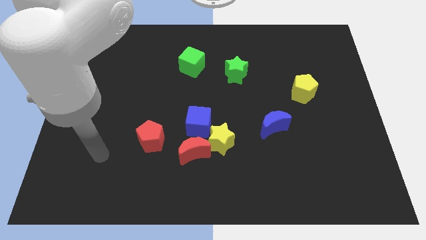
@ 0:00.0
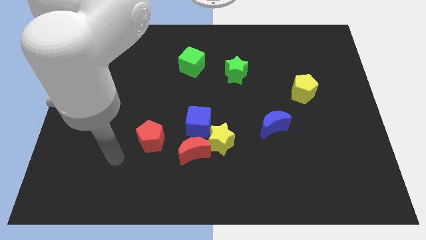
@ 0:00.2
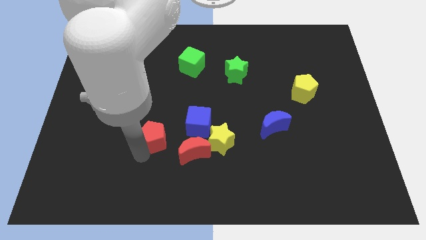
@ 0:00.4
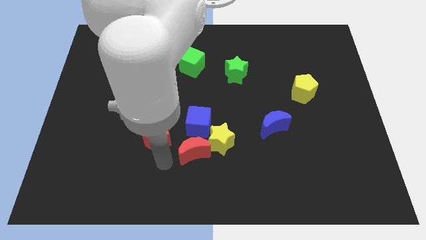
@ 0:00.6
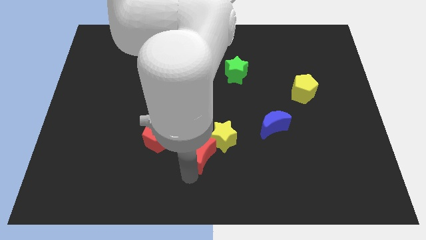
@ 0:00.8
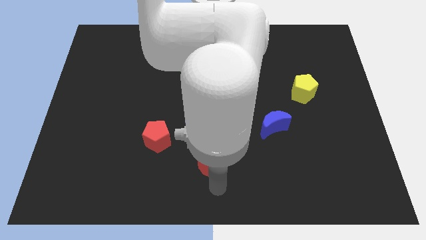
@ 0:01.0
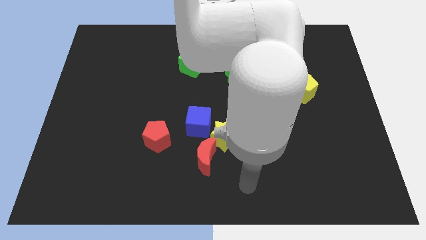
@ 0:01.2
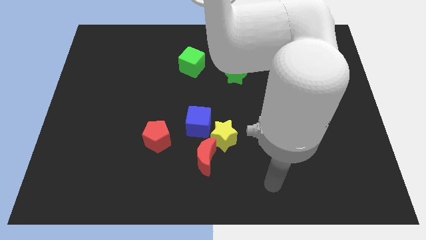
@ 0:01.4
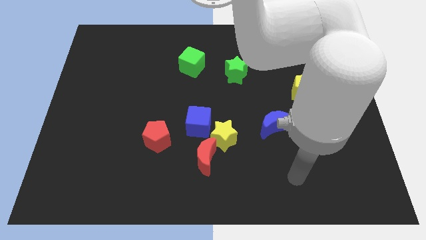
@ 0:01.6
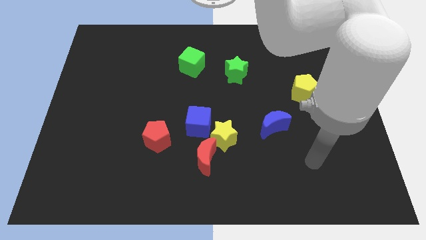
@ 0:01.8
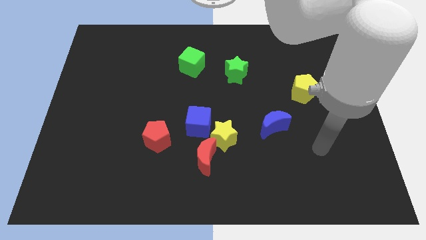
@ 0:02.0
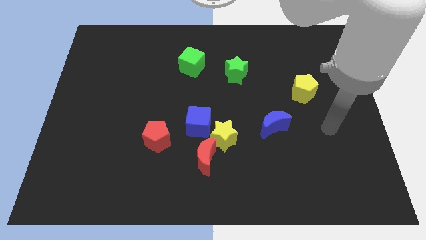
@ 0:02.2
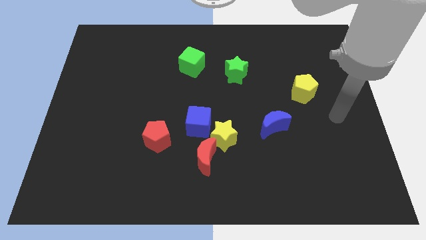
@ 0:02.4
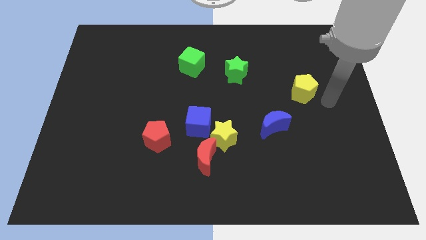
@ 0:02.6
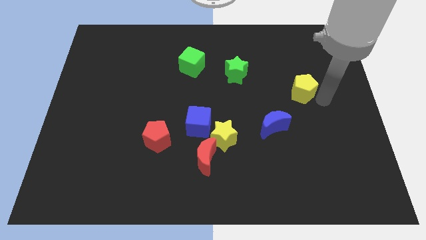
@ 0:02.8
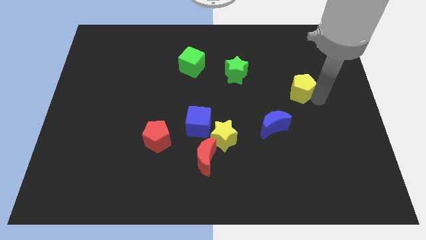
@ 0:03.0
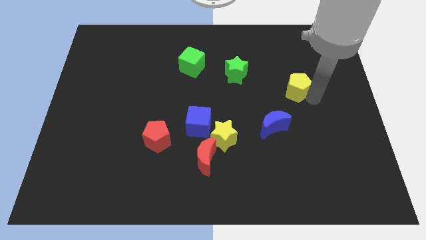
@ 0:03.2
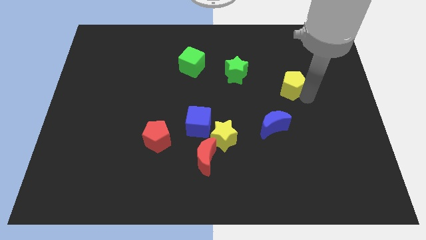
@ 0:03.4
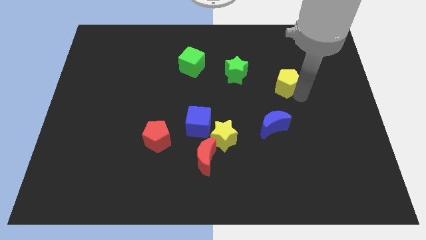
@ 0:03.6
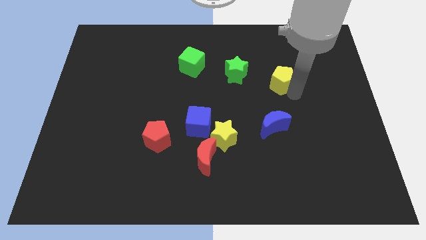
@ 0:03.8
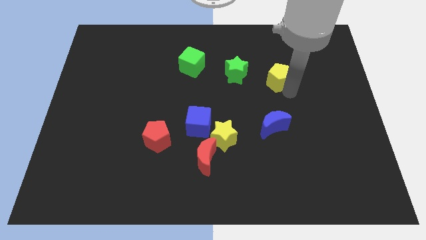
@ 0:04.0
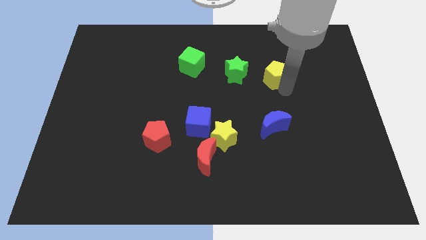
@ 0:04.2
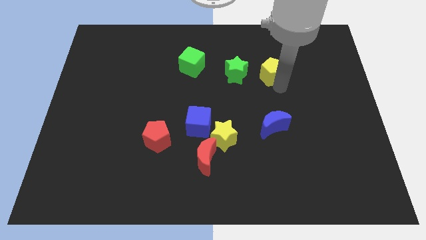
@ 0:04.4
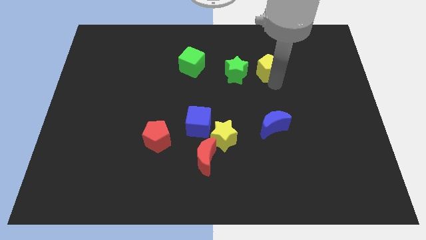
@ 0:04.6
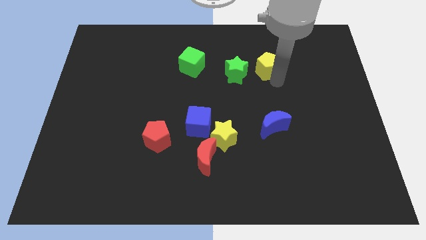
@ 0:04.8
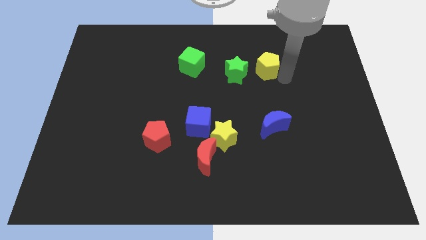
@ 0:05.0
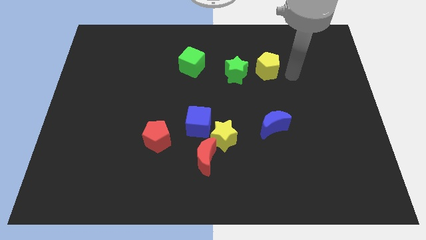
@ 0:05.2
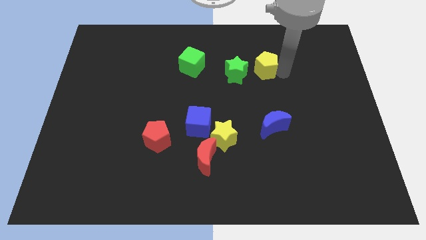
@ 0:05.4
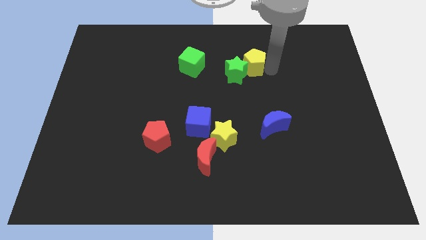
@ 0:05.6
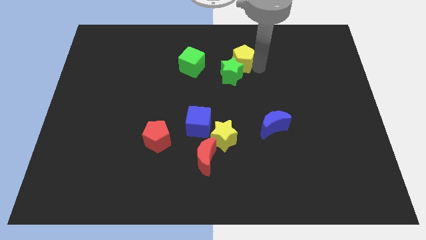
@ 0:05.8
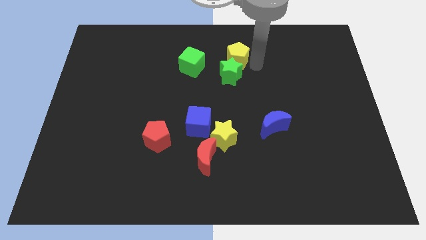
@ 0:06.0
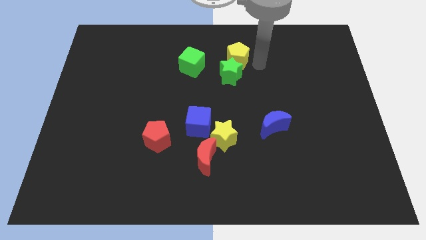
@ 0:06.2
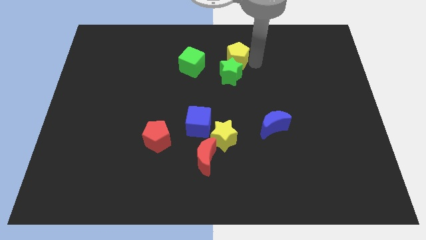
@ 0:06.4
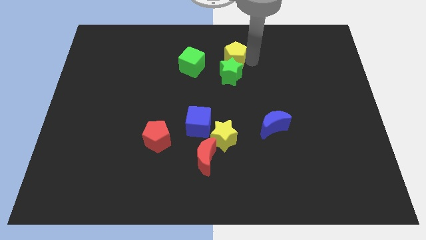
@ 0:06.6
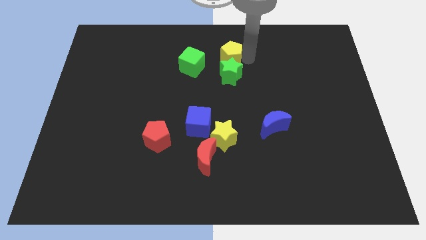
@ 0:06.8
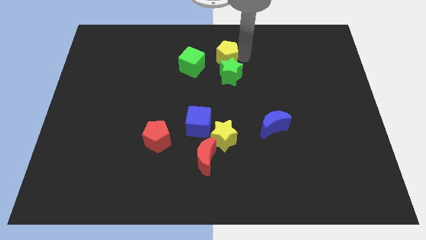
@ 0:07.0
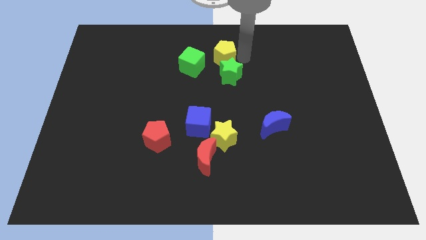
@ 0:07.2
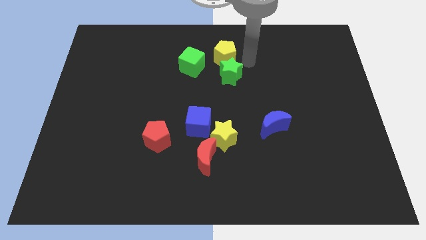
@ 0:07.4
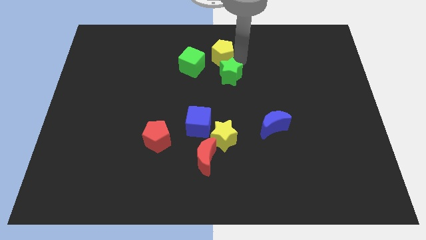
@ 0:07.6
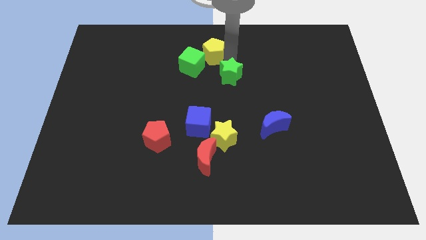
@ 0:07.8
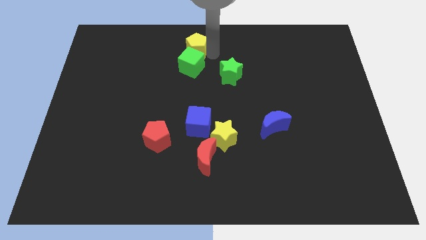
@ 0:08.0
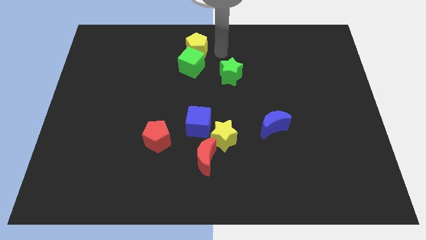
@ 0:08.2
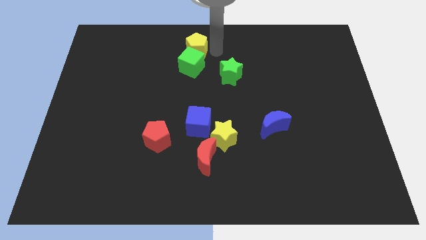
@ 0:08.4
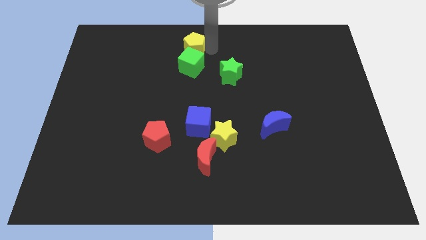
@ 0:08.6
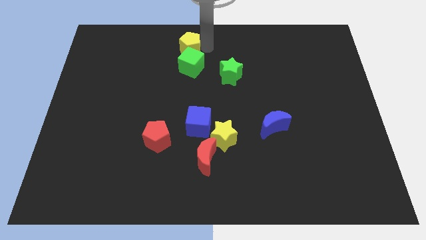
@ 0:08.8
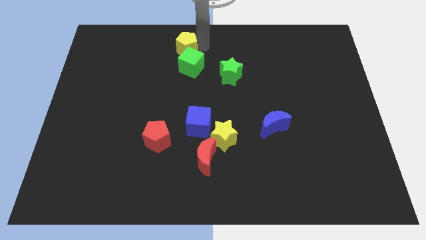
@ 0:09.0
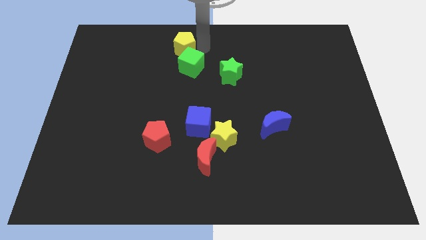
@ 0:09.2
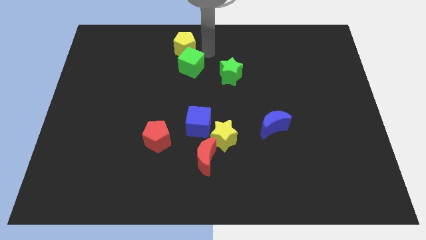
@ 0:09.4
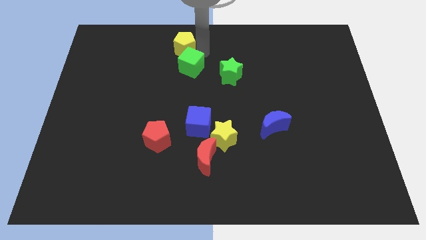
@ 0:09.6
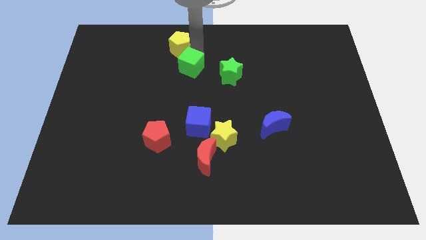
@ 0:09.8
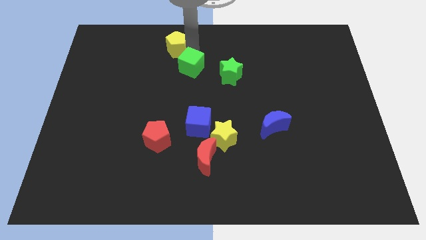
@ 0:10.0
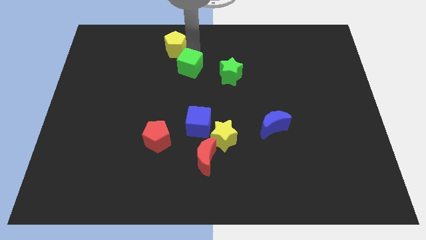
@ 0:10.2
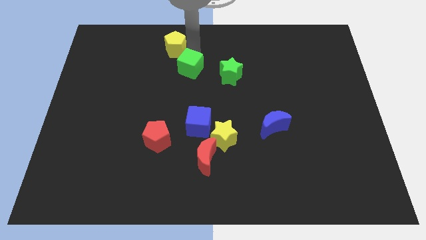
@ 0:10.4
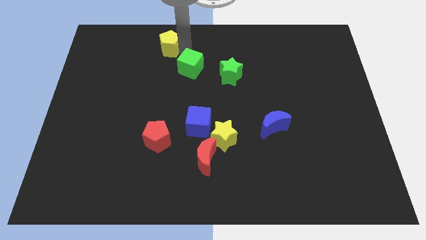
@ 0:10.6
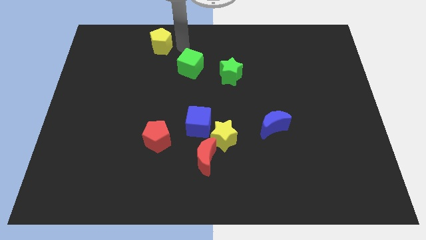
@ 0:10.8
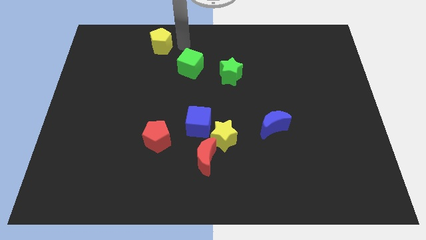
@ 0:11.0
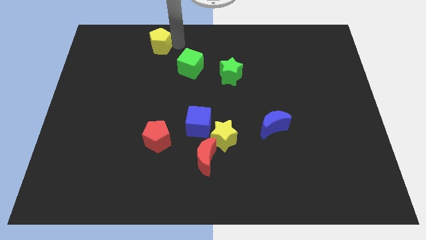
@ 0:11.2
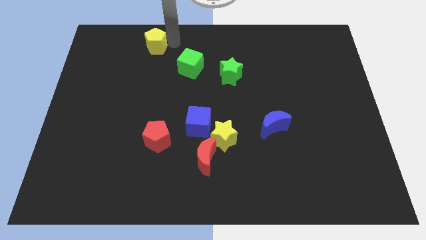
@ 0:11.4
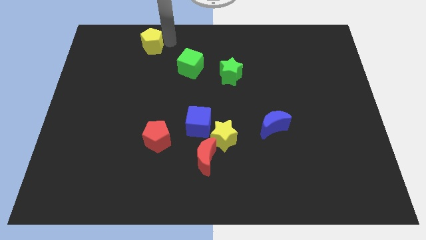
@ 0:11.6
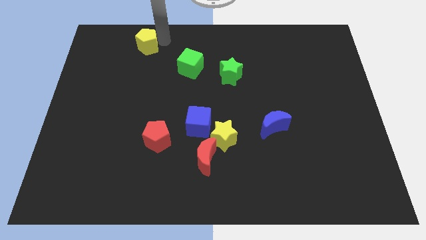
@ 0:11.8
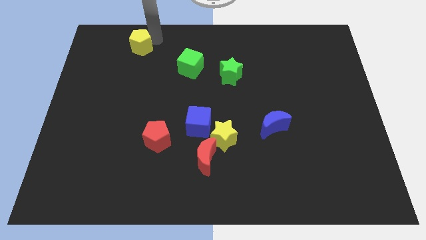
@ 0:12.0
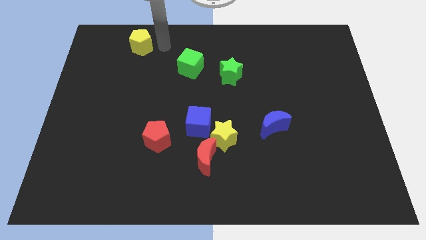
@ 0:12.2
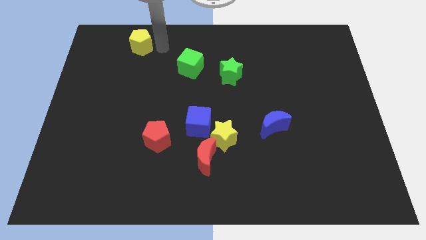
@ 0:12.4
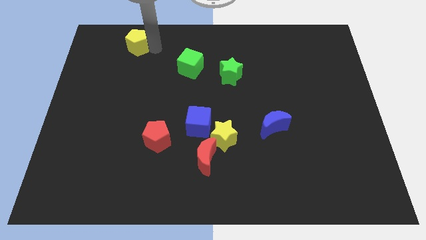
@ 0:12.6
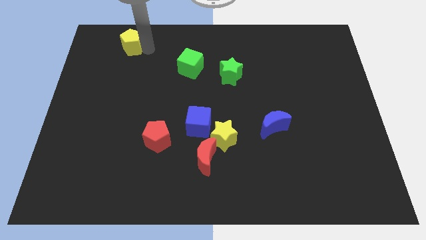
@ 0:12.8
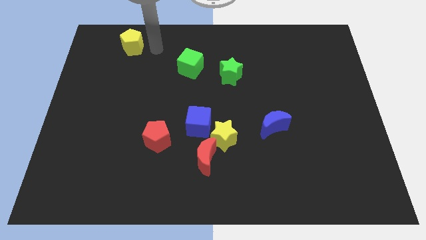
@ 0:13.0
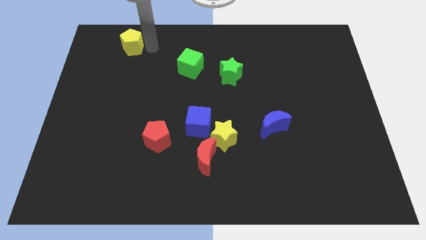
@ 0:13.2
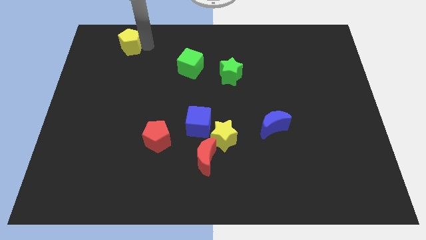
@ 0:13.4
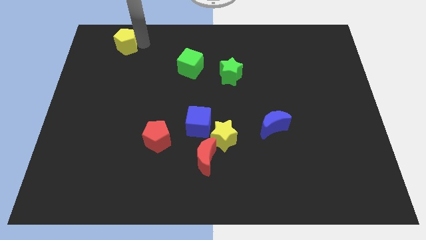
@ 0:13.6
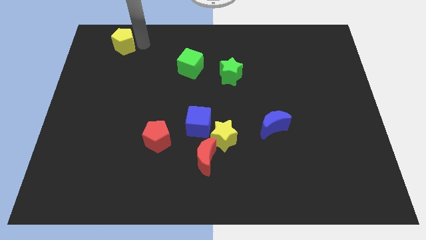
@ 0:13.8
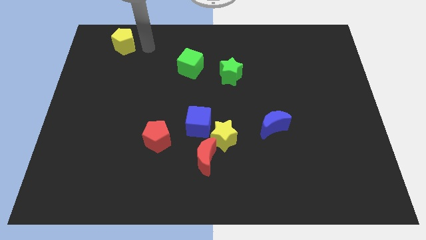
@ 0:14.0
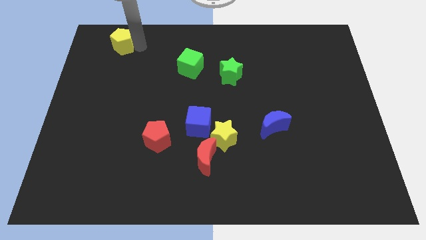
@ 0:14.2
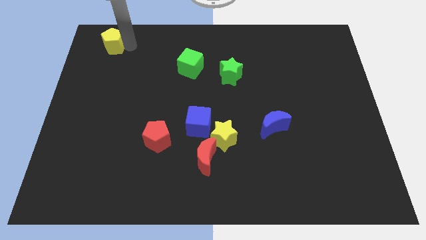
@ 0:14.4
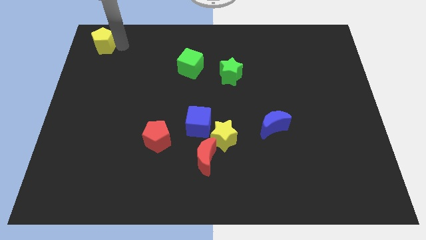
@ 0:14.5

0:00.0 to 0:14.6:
move the yellow pentagon to the top left of the board
